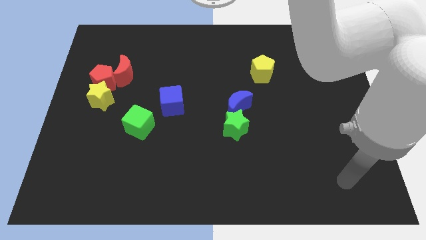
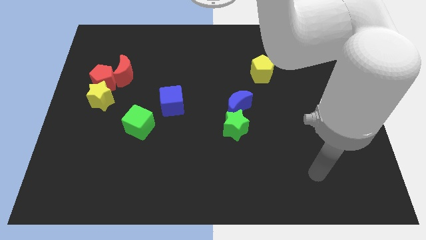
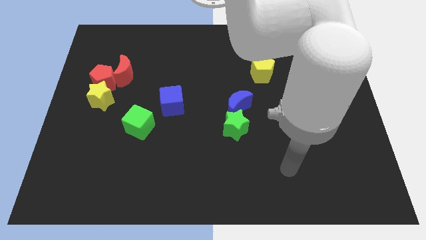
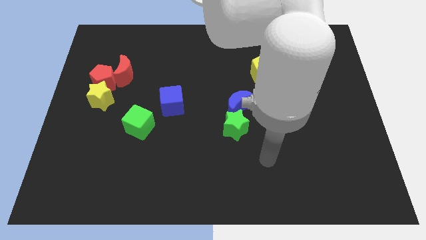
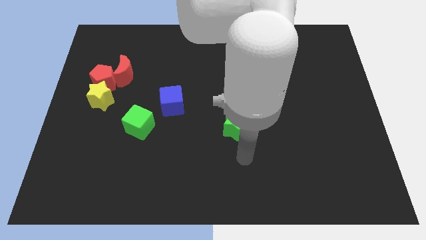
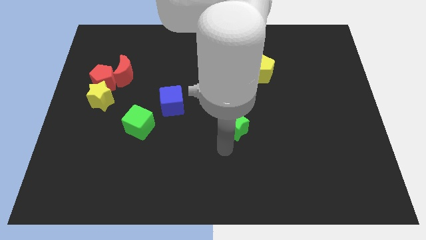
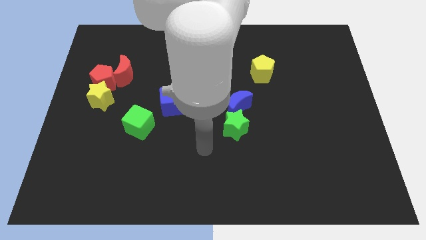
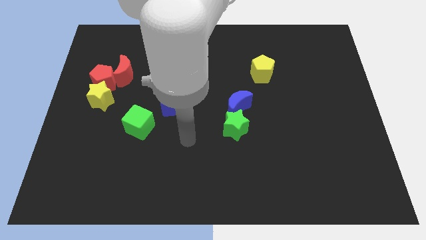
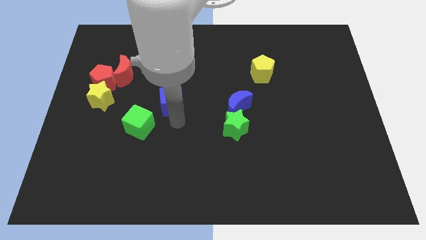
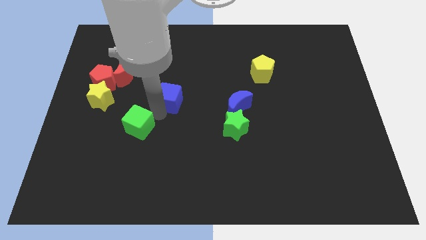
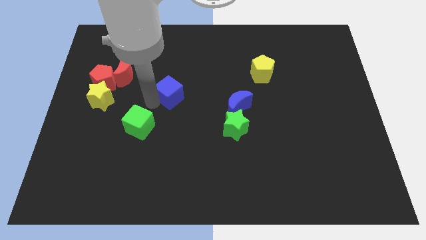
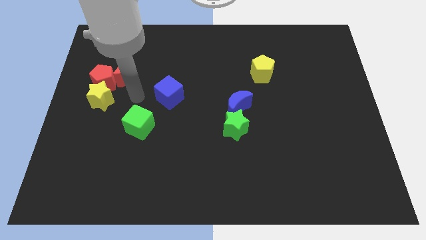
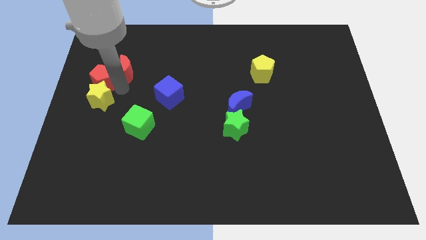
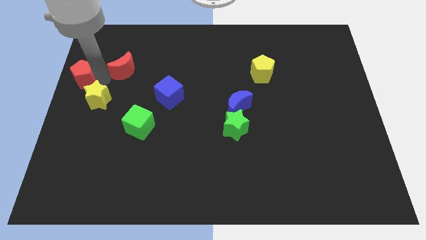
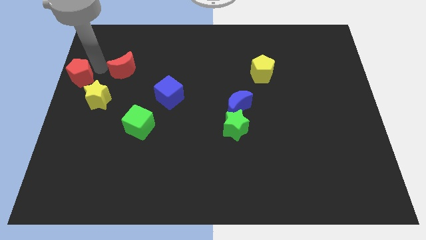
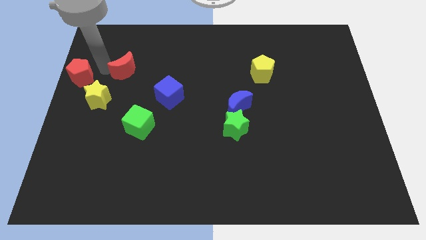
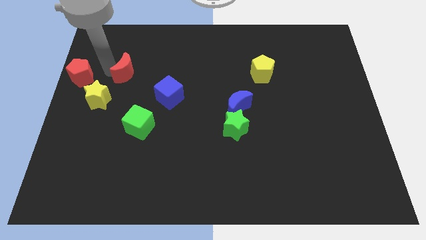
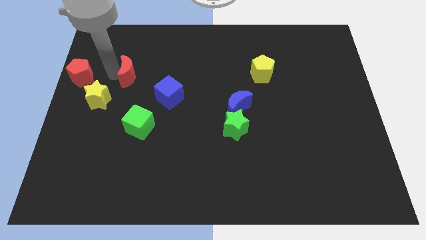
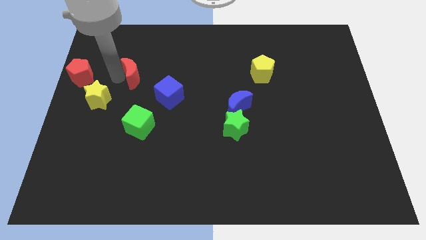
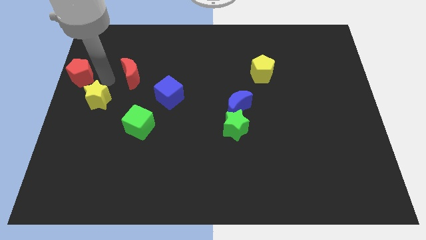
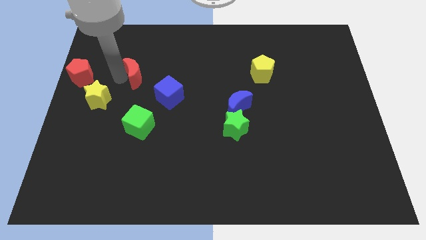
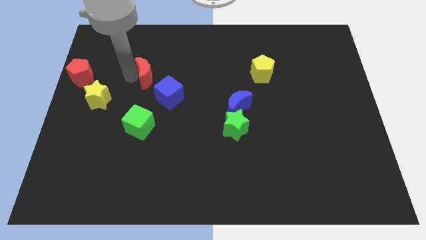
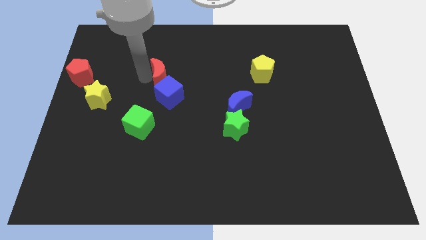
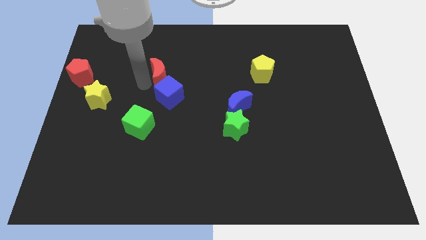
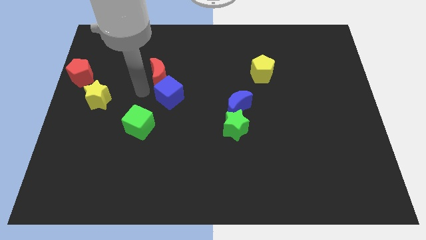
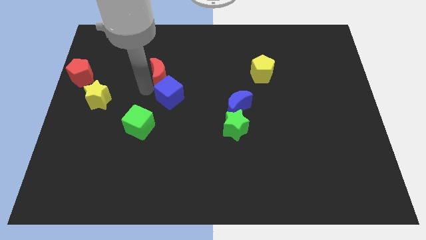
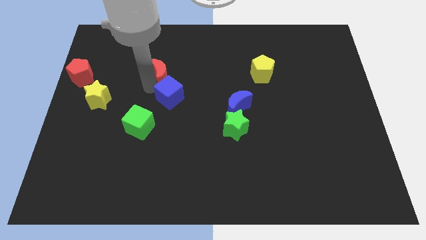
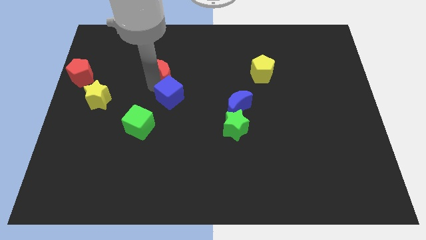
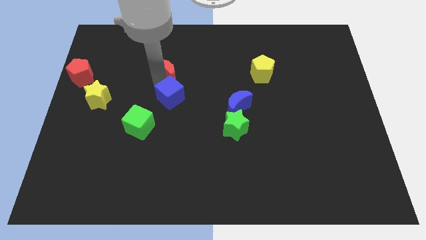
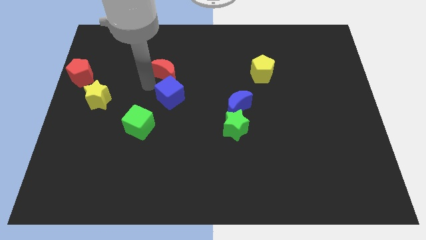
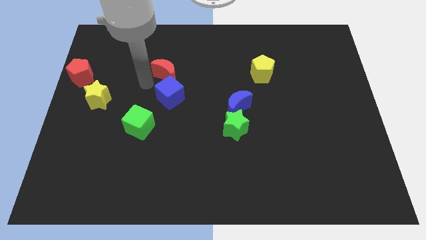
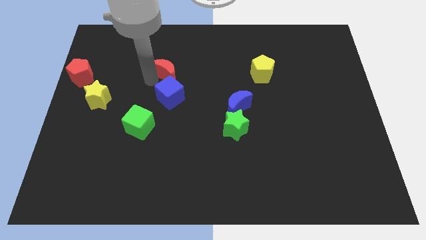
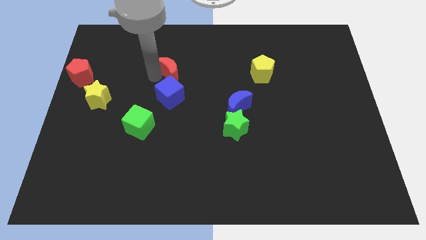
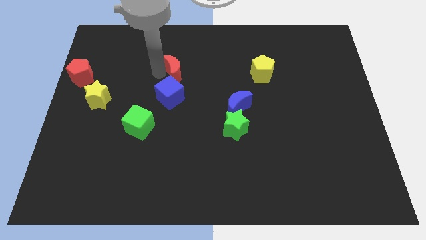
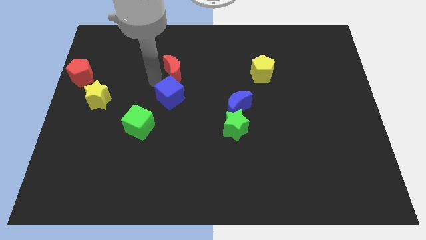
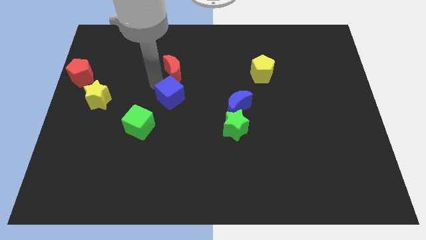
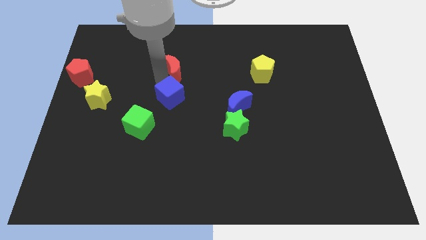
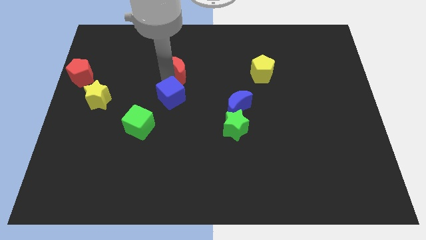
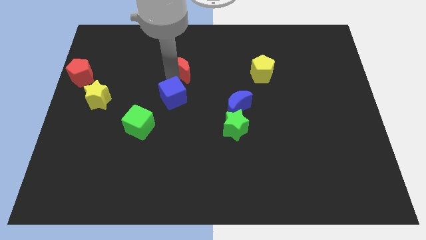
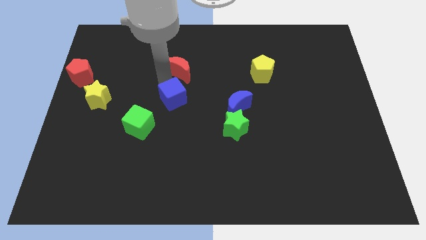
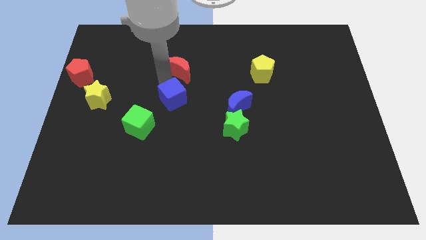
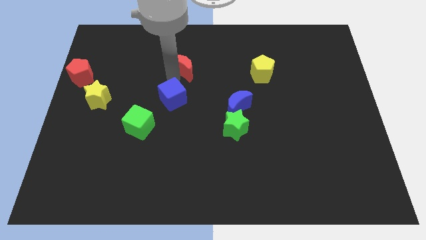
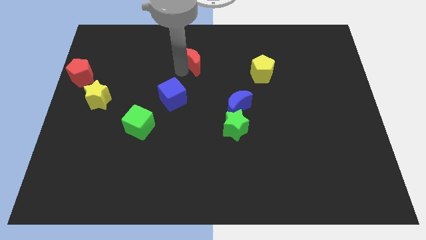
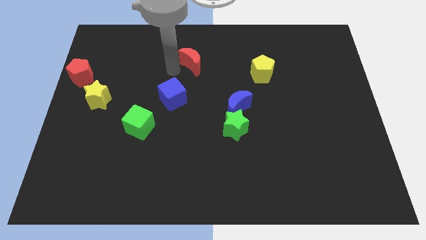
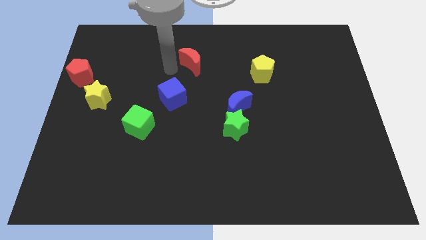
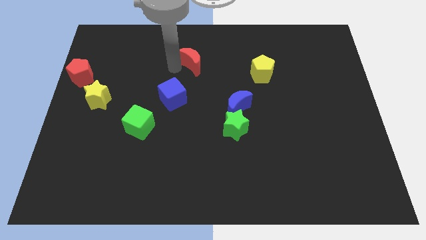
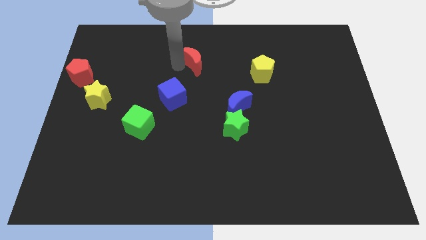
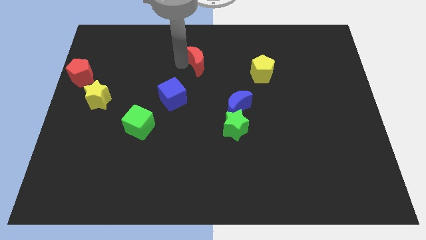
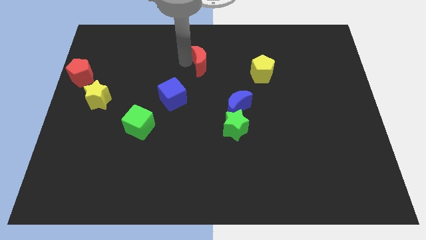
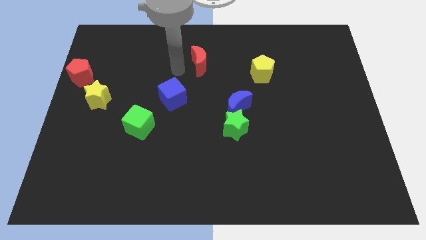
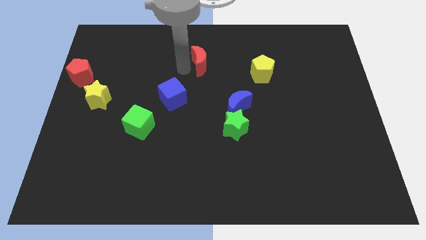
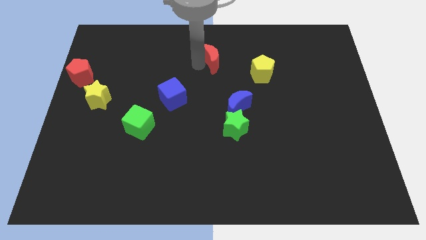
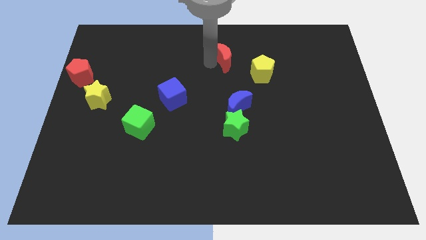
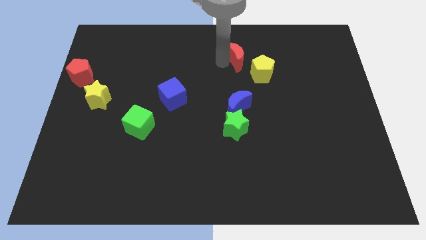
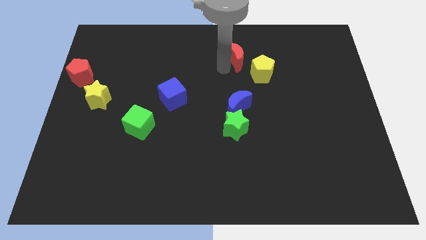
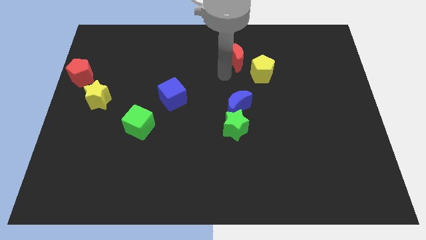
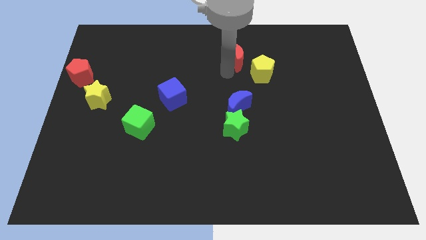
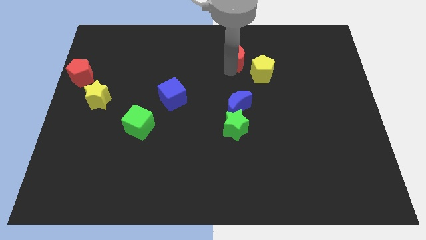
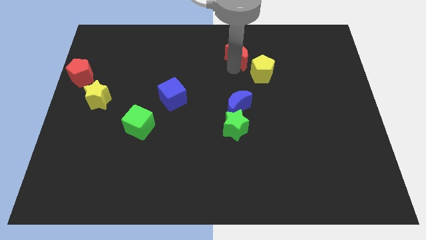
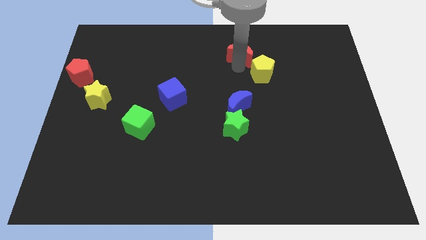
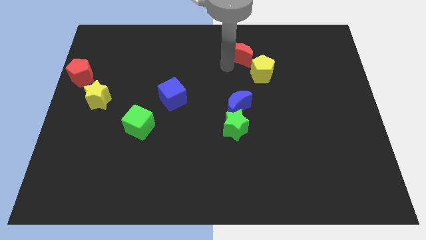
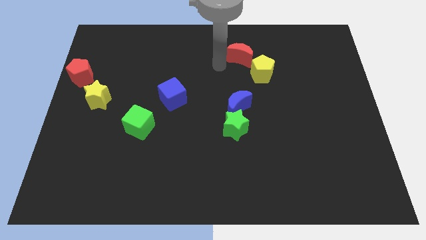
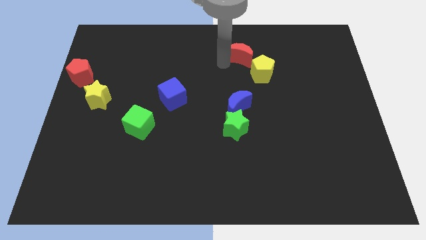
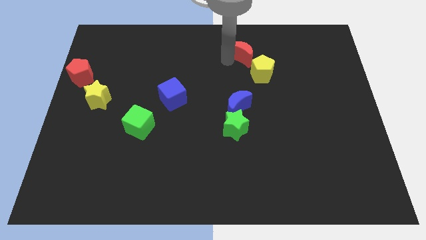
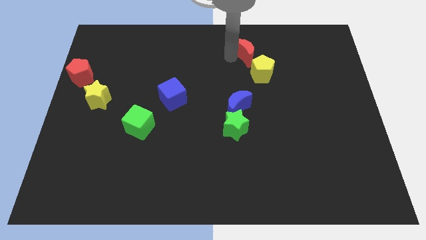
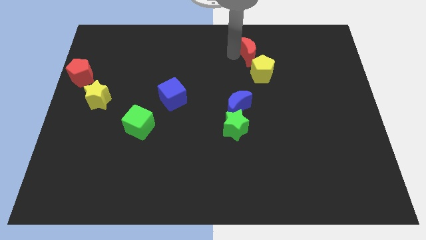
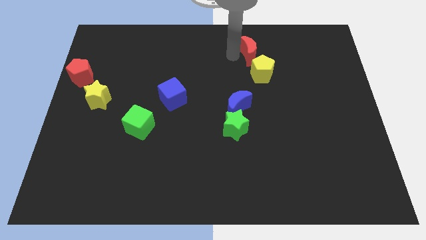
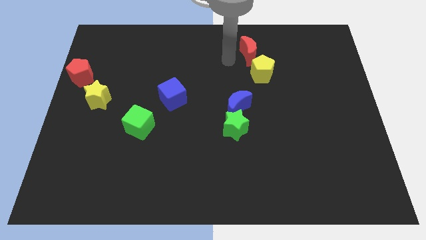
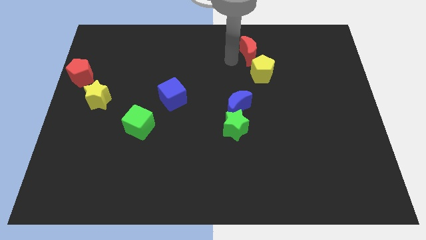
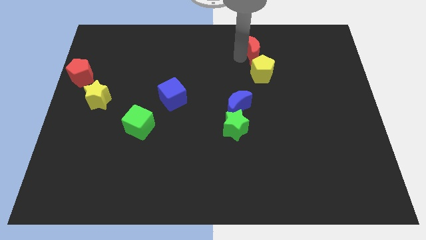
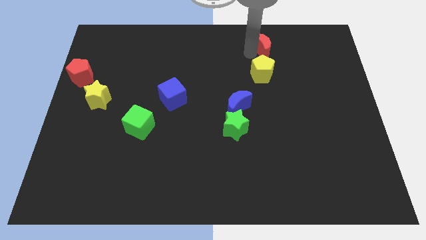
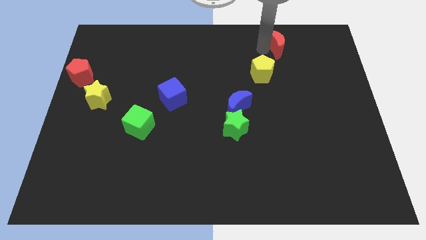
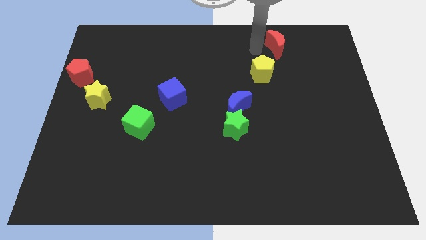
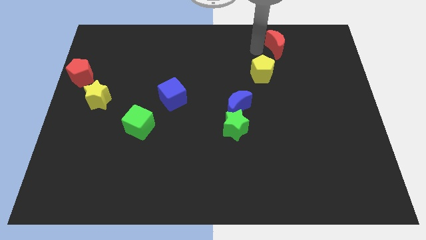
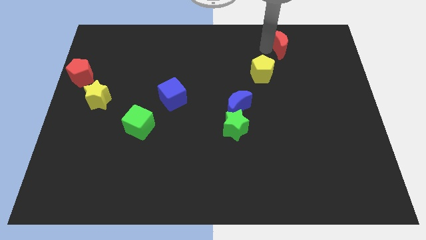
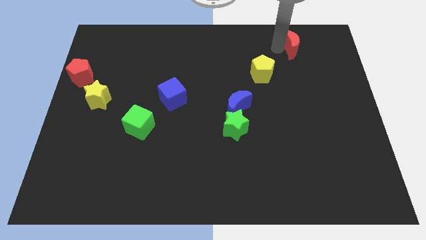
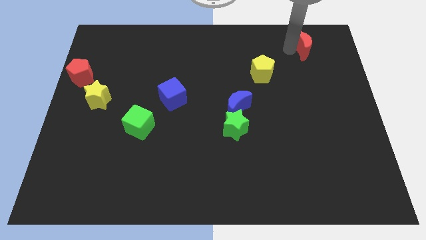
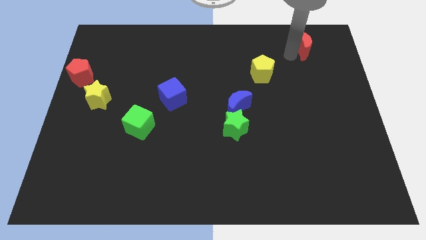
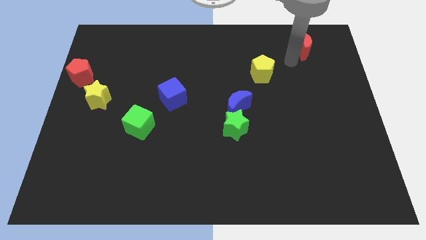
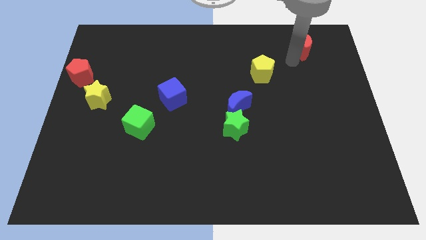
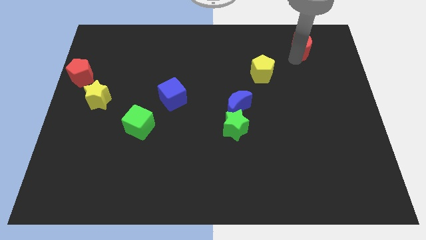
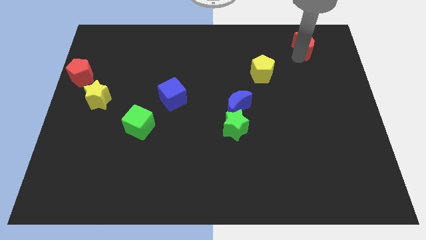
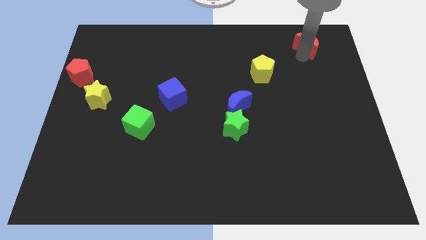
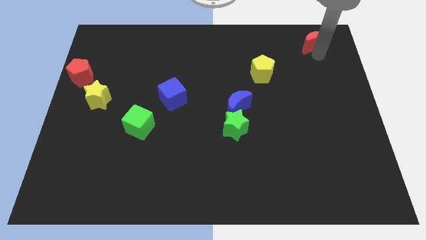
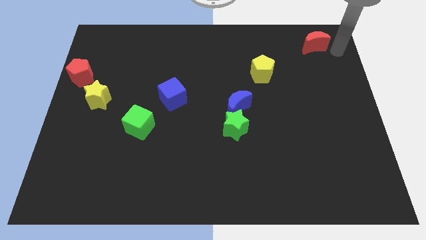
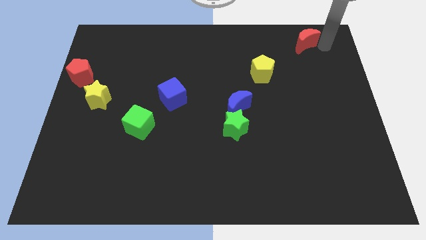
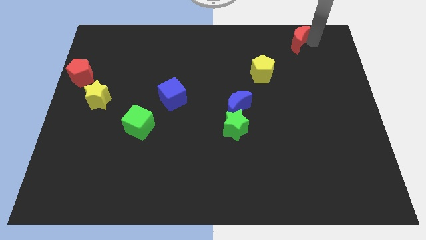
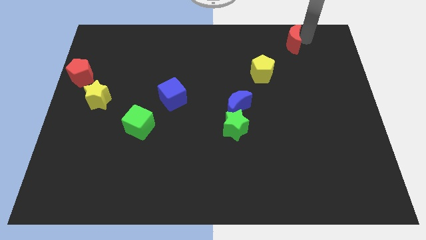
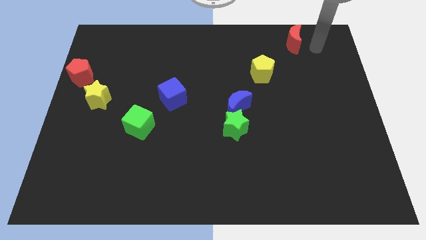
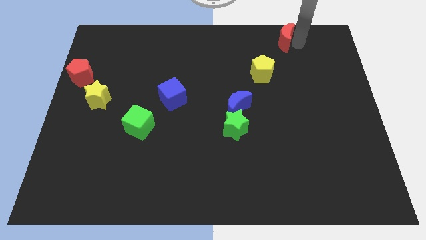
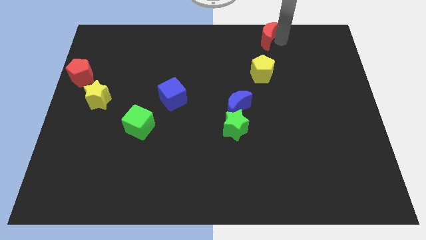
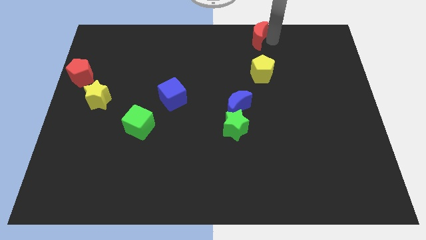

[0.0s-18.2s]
move the red moon to the towards your base
